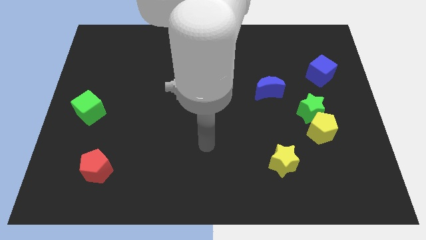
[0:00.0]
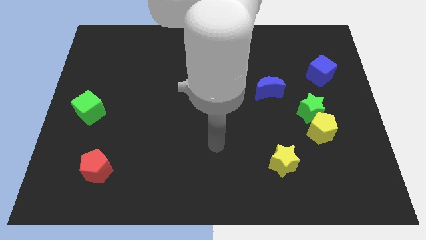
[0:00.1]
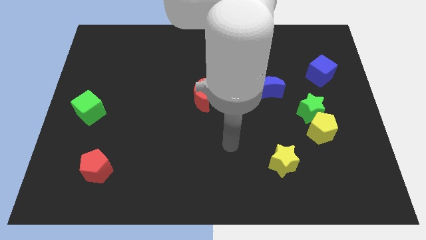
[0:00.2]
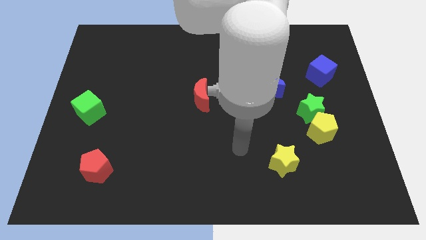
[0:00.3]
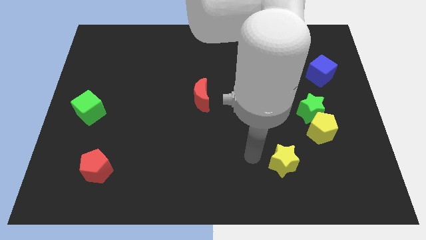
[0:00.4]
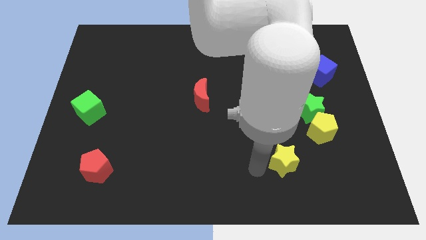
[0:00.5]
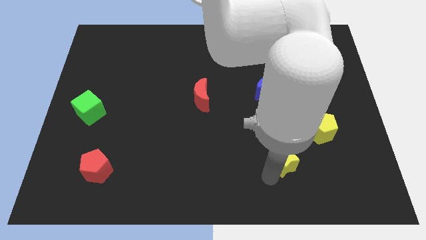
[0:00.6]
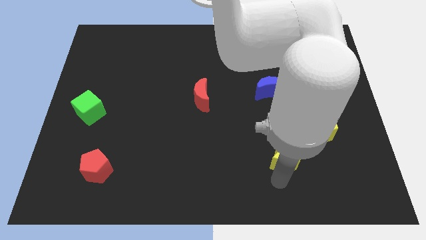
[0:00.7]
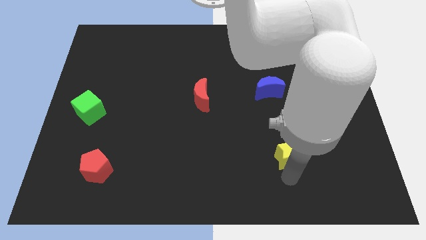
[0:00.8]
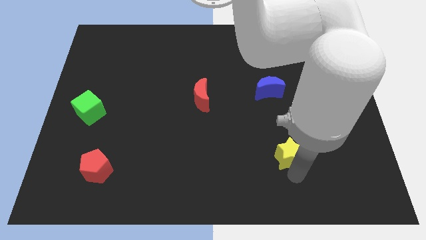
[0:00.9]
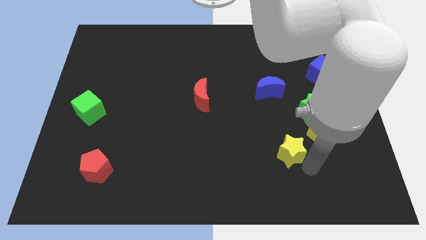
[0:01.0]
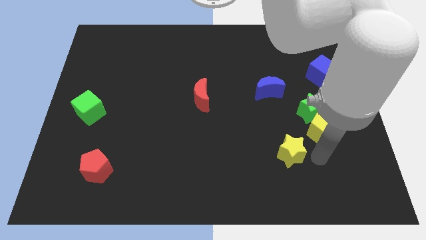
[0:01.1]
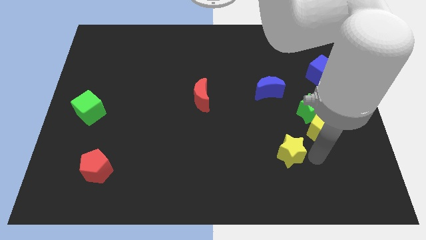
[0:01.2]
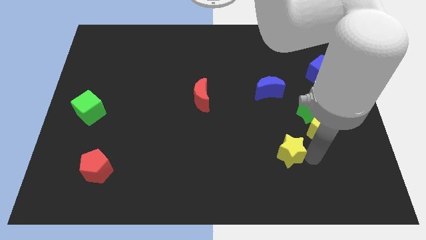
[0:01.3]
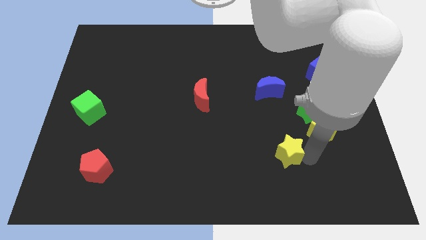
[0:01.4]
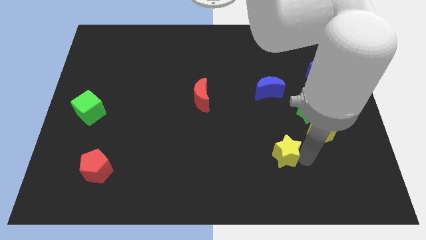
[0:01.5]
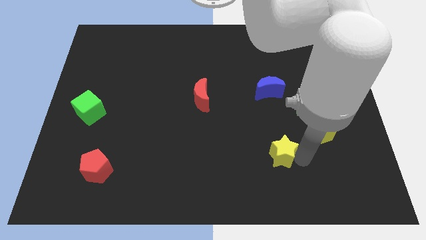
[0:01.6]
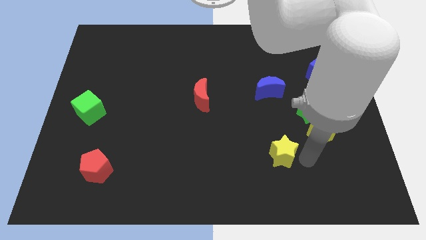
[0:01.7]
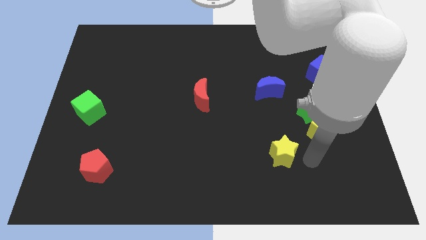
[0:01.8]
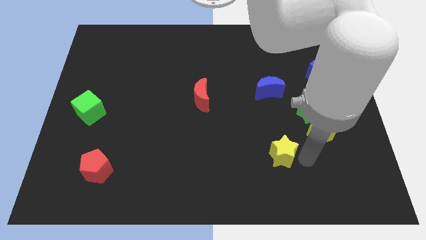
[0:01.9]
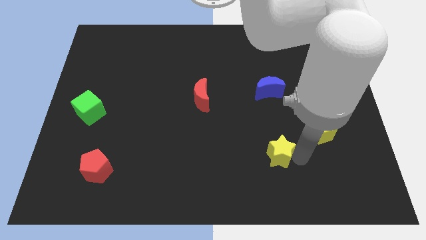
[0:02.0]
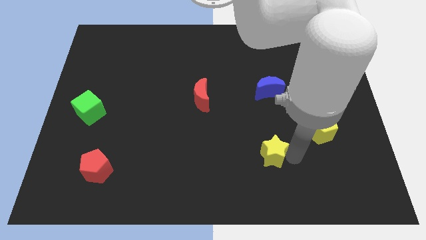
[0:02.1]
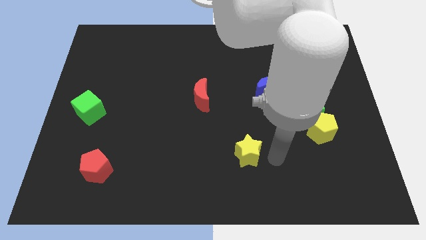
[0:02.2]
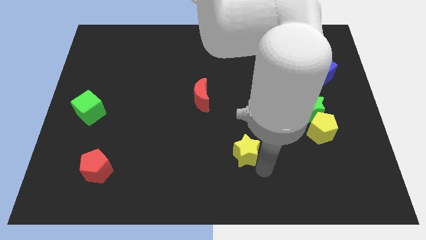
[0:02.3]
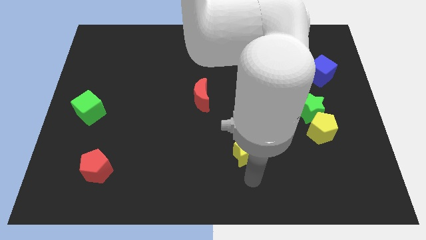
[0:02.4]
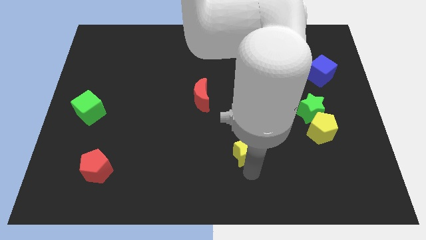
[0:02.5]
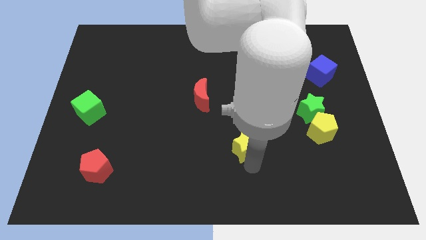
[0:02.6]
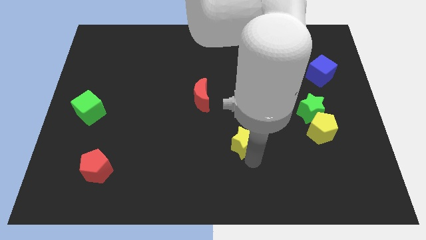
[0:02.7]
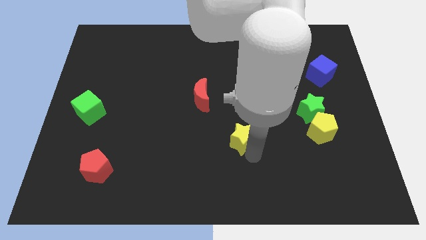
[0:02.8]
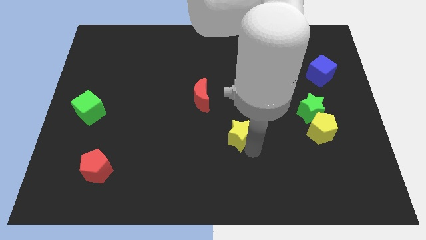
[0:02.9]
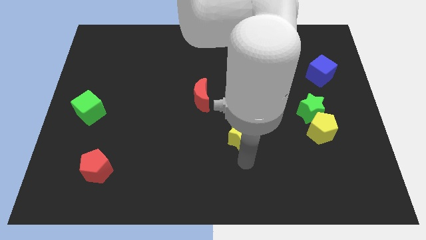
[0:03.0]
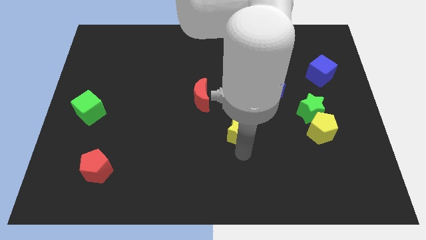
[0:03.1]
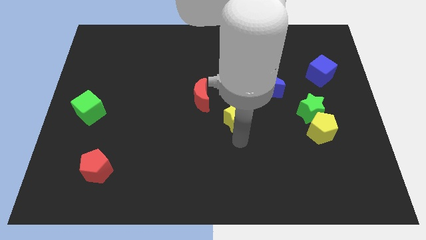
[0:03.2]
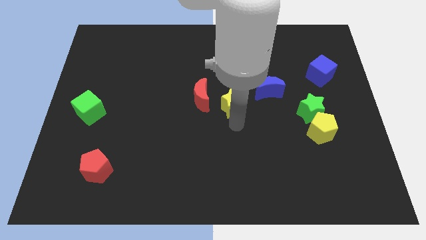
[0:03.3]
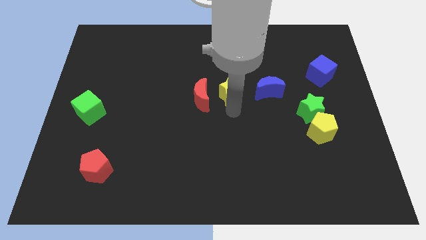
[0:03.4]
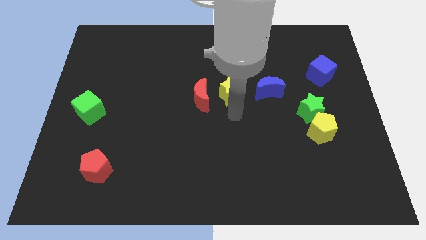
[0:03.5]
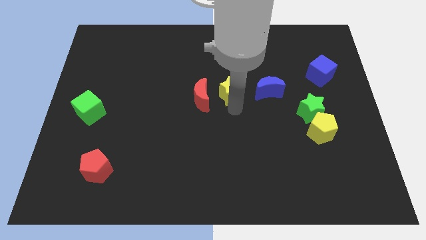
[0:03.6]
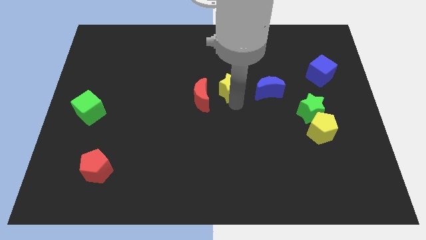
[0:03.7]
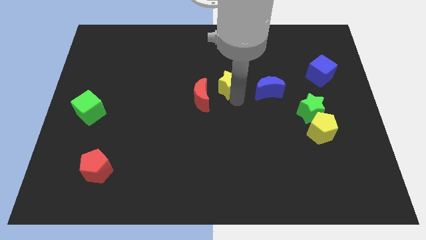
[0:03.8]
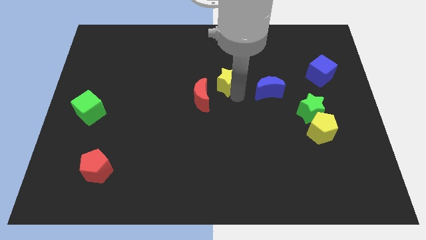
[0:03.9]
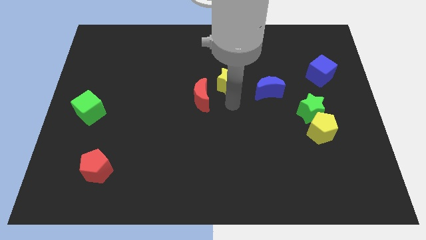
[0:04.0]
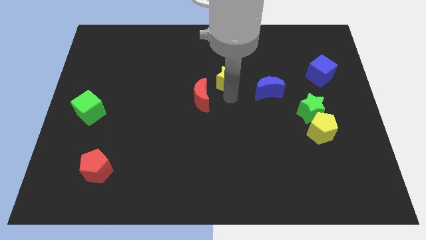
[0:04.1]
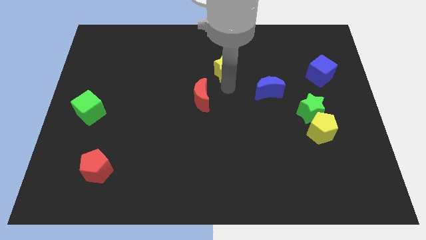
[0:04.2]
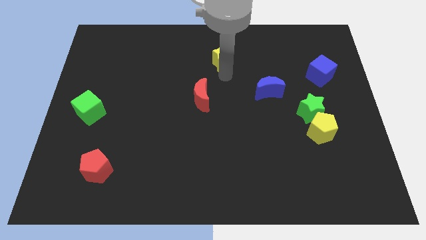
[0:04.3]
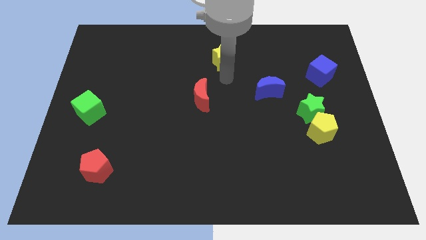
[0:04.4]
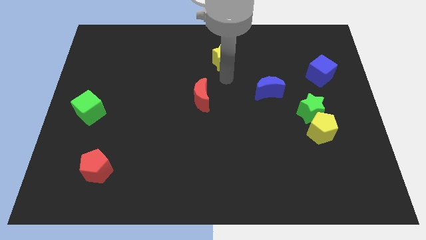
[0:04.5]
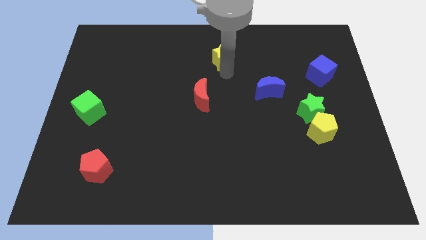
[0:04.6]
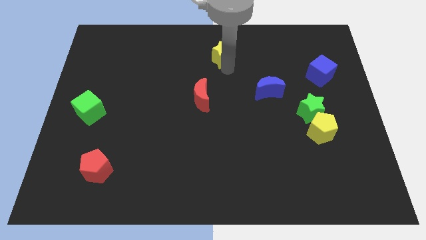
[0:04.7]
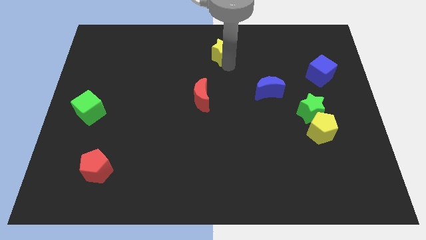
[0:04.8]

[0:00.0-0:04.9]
put the yellow star to the top side

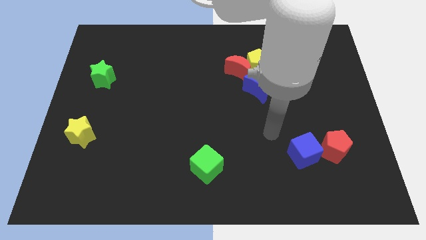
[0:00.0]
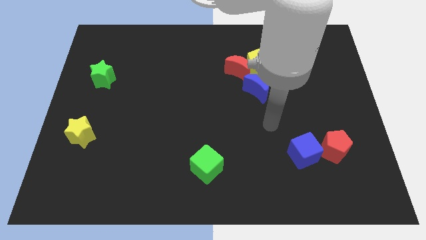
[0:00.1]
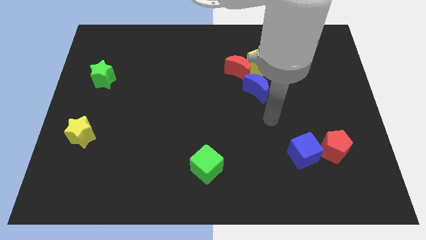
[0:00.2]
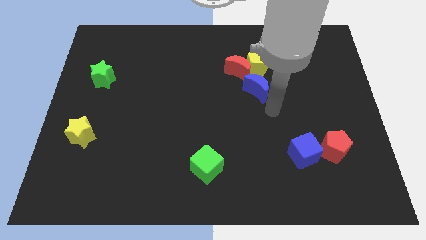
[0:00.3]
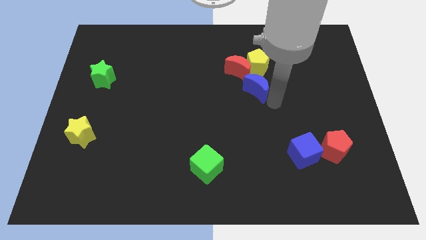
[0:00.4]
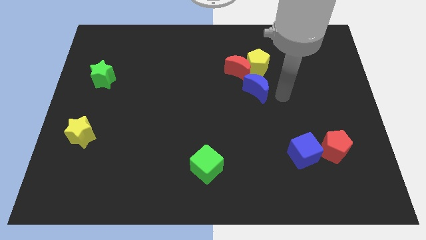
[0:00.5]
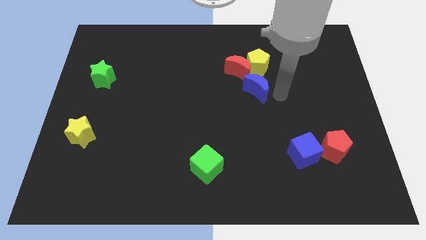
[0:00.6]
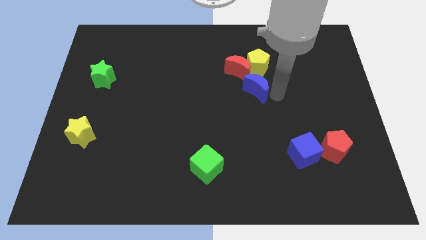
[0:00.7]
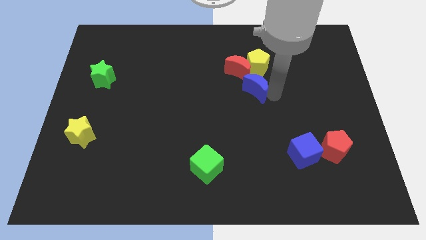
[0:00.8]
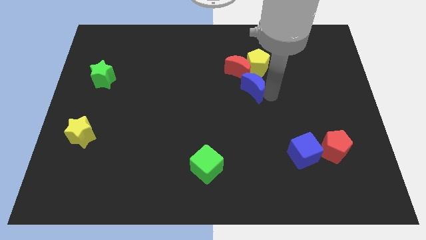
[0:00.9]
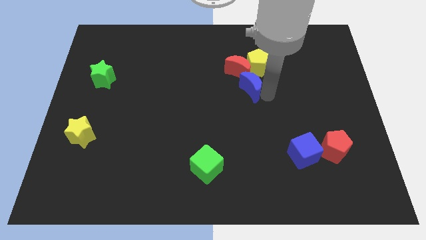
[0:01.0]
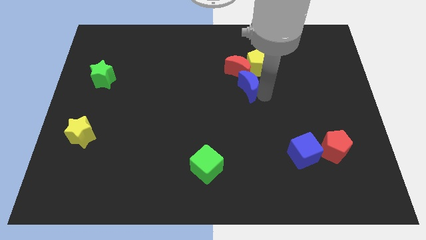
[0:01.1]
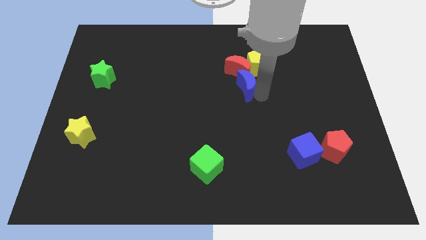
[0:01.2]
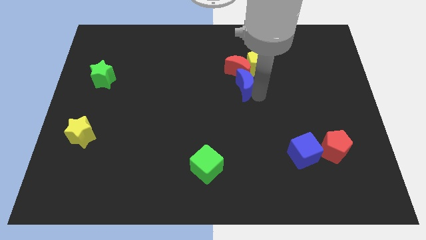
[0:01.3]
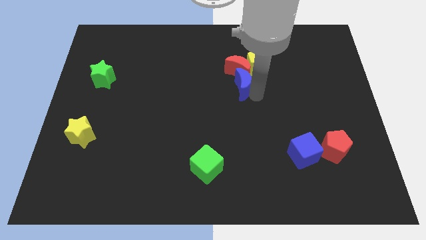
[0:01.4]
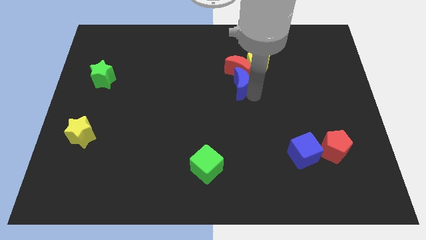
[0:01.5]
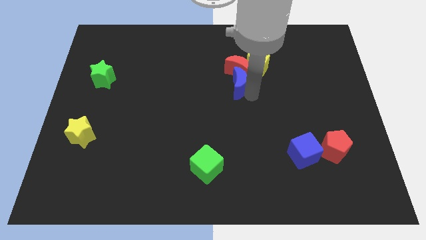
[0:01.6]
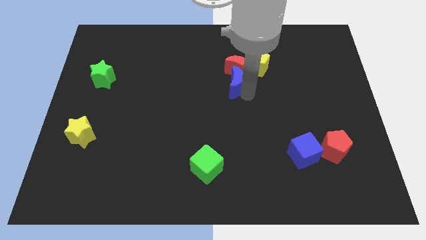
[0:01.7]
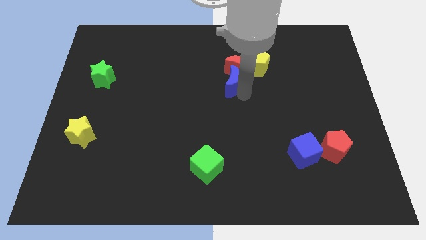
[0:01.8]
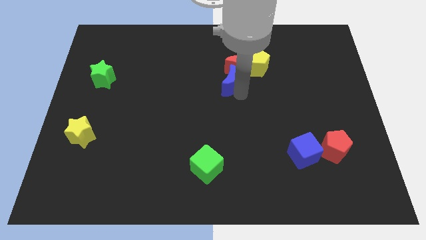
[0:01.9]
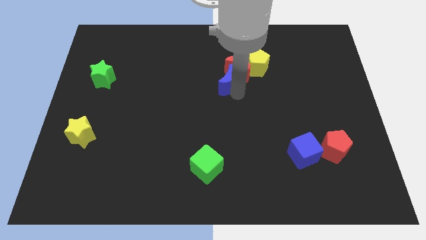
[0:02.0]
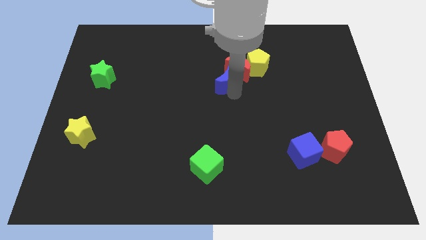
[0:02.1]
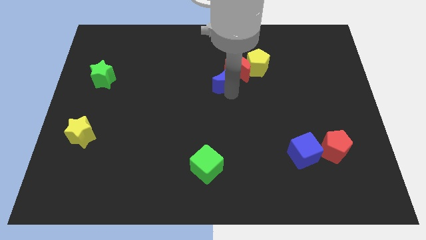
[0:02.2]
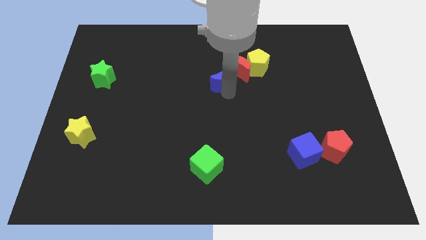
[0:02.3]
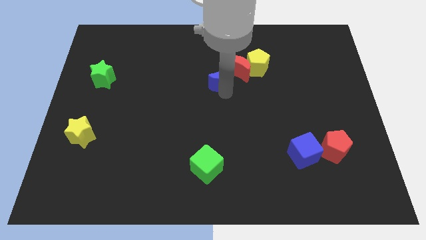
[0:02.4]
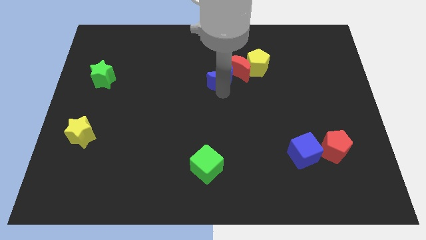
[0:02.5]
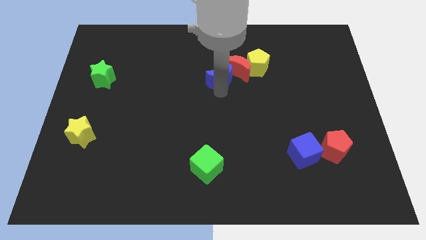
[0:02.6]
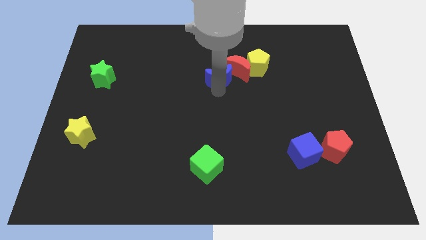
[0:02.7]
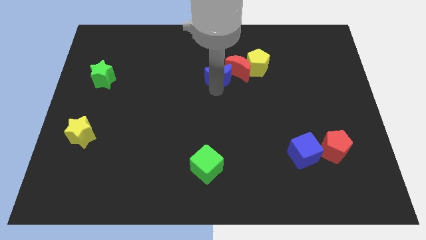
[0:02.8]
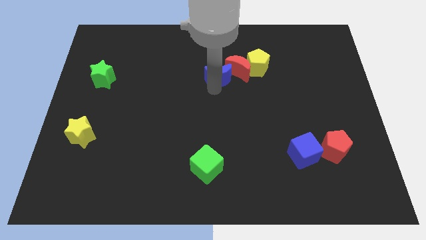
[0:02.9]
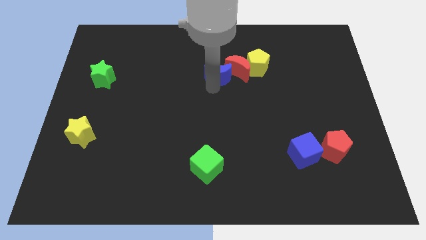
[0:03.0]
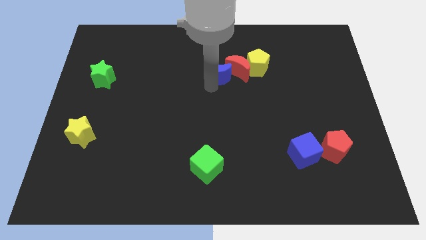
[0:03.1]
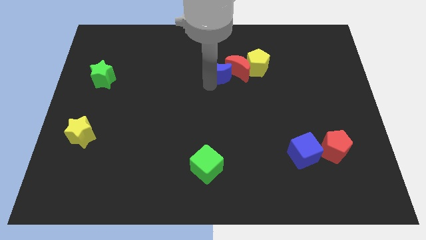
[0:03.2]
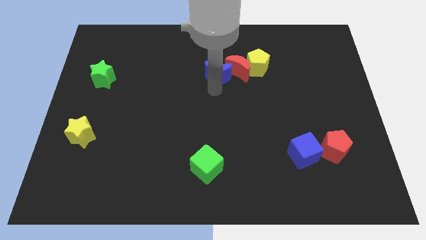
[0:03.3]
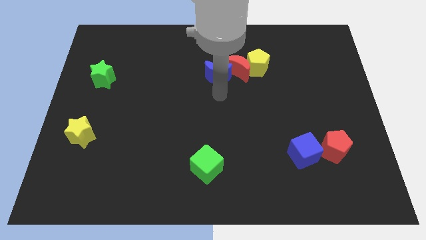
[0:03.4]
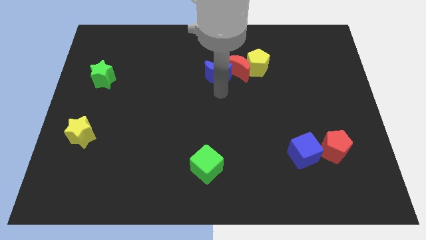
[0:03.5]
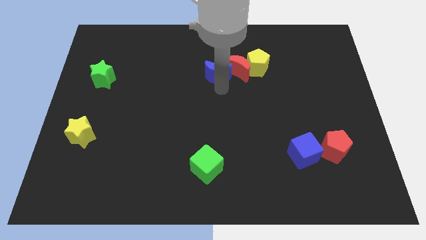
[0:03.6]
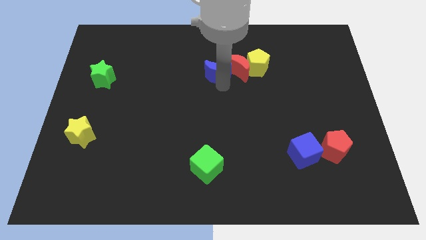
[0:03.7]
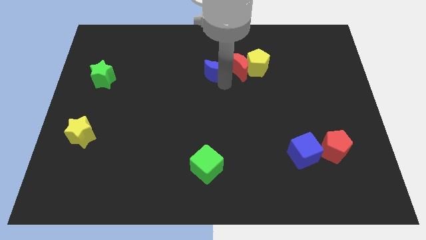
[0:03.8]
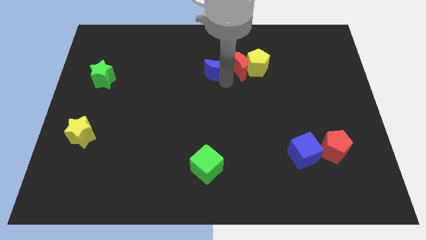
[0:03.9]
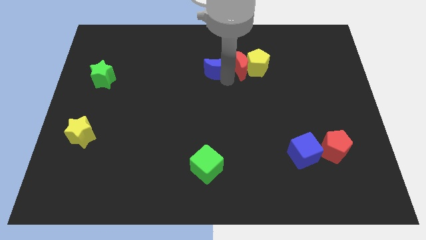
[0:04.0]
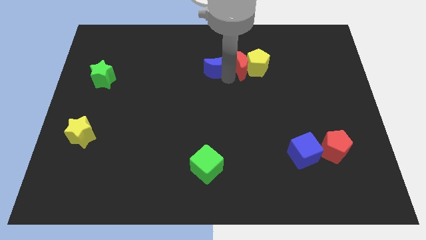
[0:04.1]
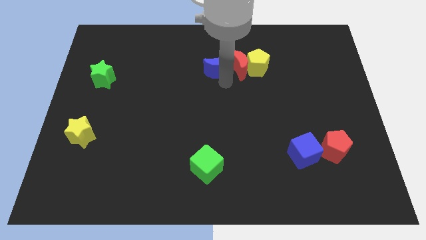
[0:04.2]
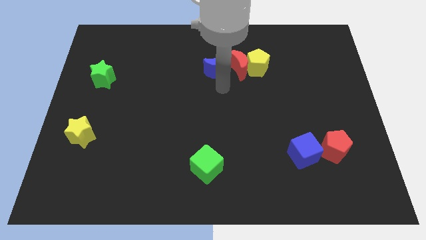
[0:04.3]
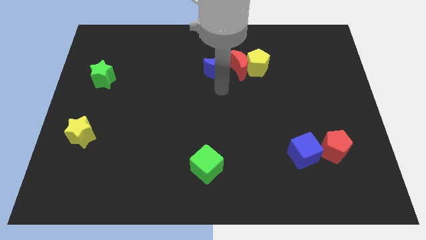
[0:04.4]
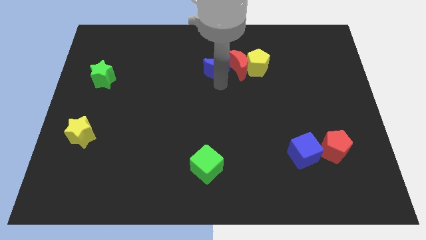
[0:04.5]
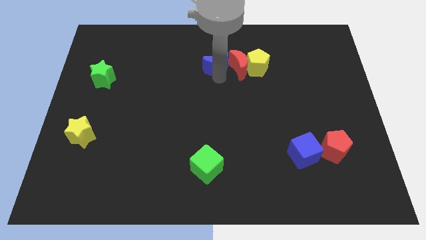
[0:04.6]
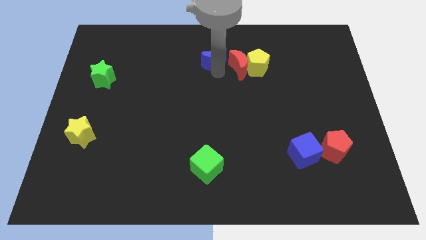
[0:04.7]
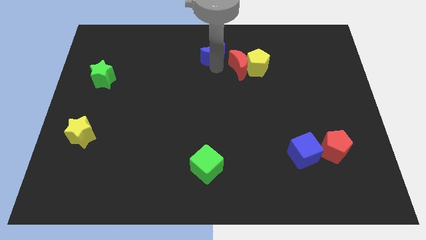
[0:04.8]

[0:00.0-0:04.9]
push the blue moon to the top side
